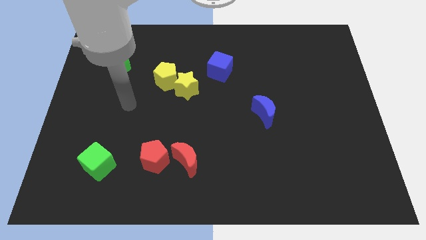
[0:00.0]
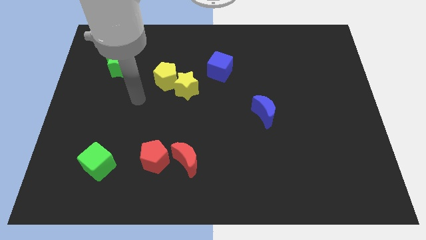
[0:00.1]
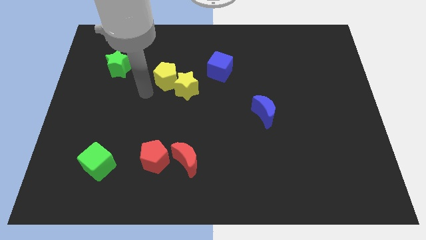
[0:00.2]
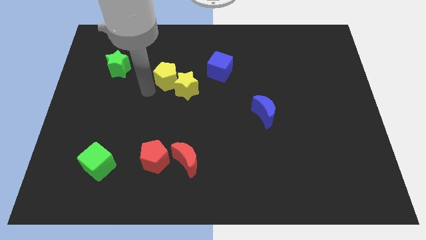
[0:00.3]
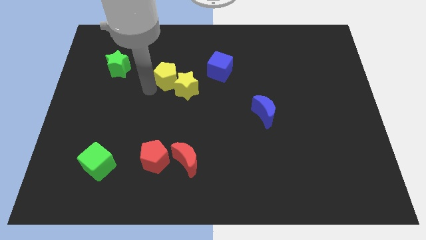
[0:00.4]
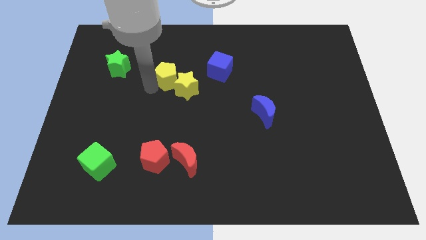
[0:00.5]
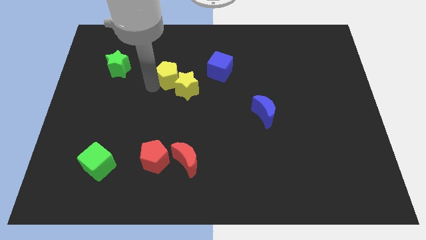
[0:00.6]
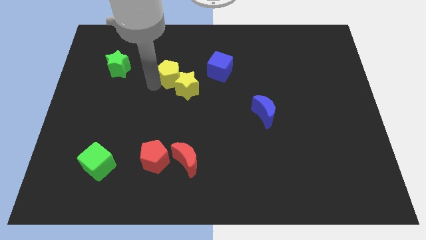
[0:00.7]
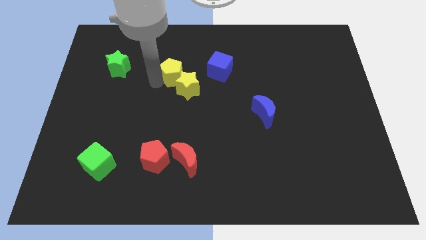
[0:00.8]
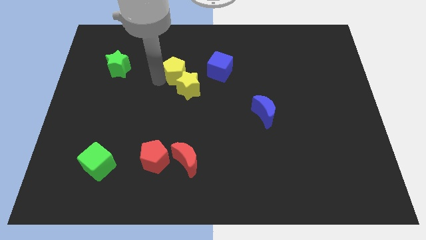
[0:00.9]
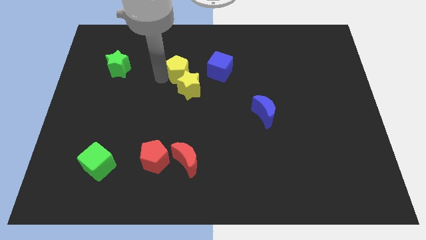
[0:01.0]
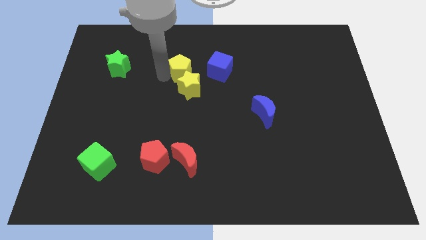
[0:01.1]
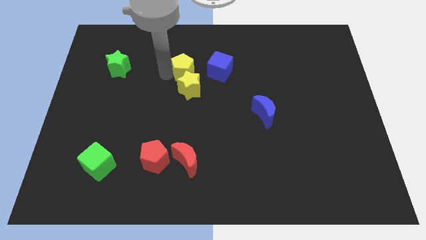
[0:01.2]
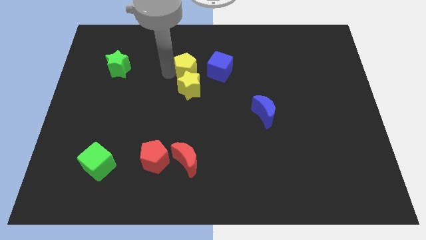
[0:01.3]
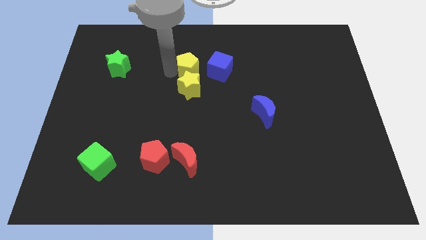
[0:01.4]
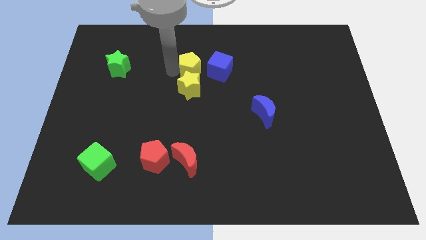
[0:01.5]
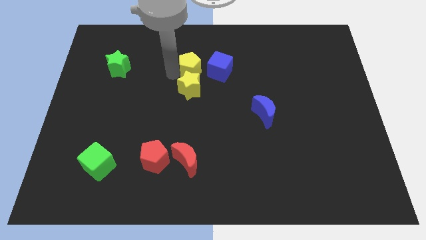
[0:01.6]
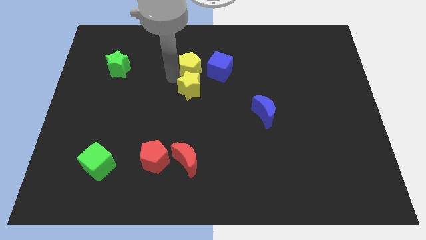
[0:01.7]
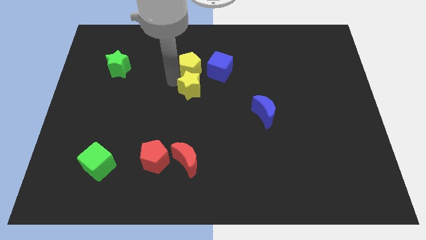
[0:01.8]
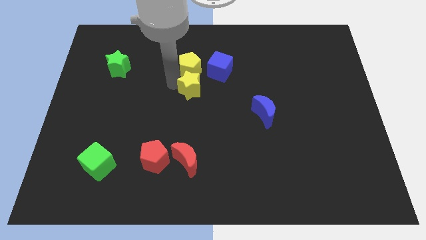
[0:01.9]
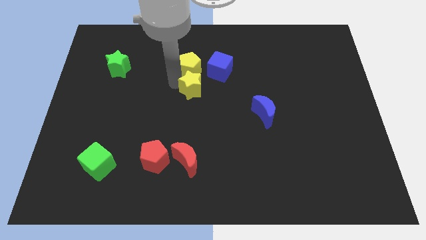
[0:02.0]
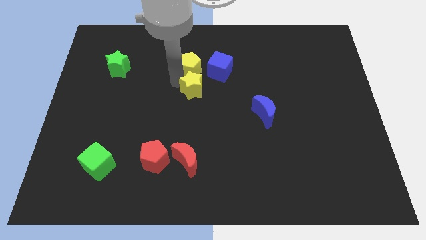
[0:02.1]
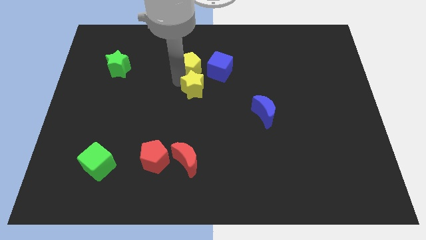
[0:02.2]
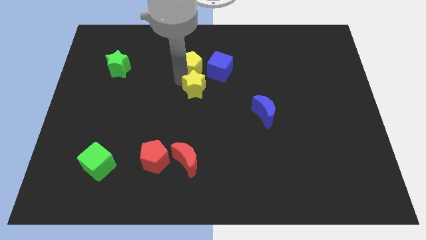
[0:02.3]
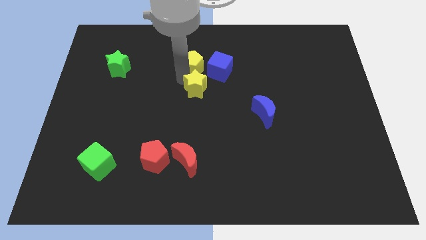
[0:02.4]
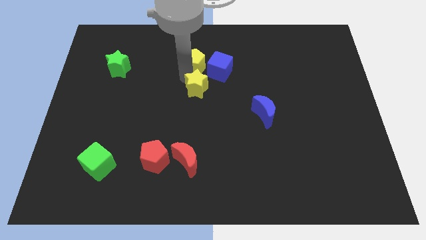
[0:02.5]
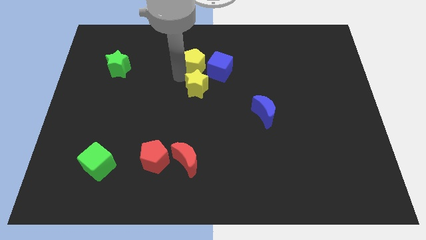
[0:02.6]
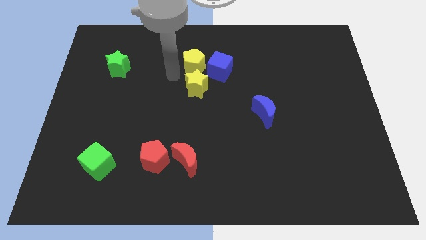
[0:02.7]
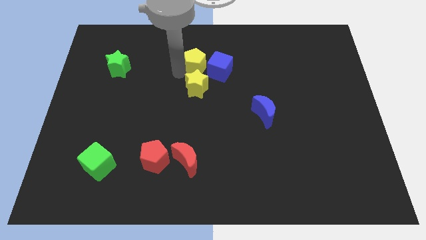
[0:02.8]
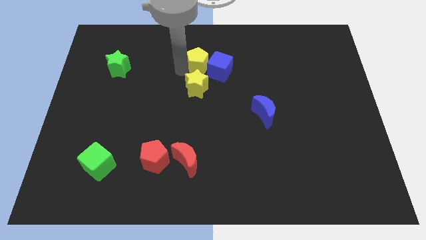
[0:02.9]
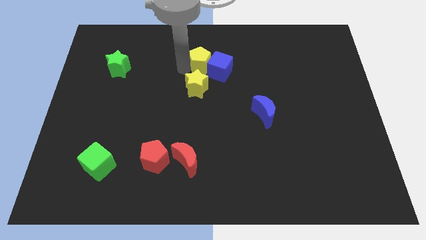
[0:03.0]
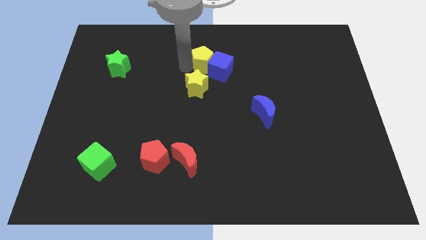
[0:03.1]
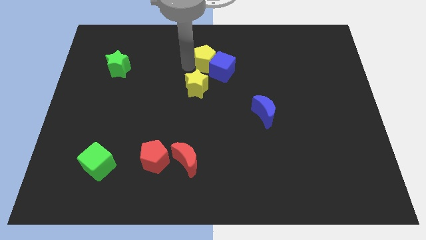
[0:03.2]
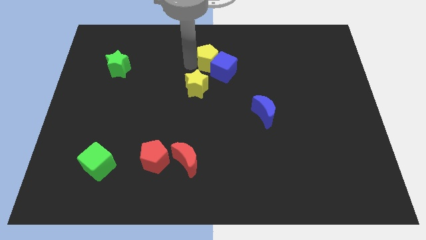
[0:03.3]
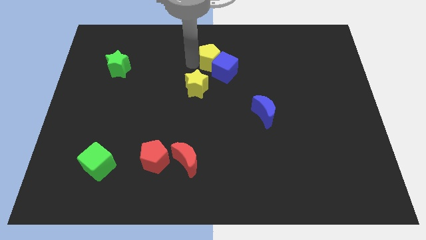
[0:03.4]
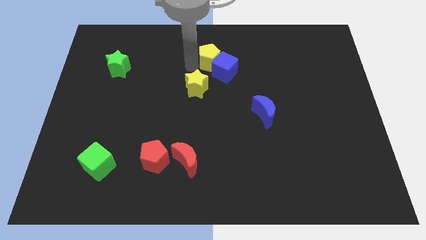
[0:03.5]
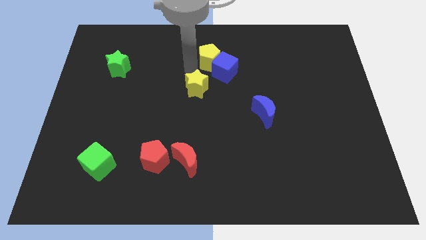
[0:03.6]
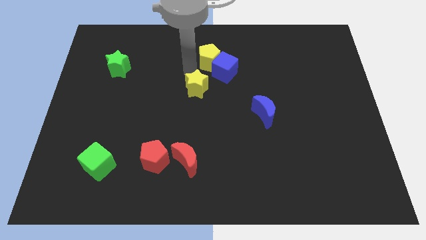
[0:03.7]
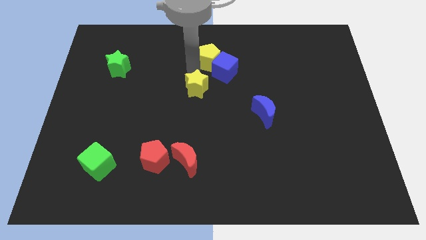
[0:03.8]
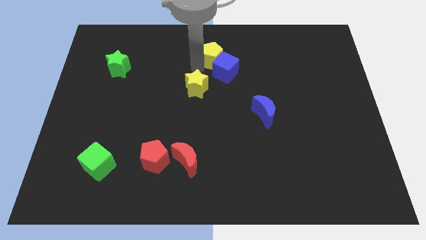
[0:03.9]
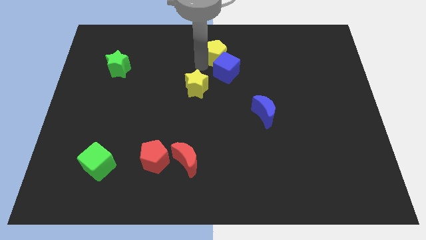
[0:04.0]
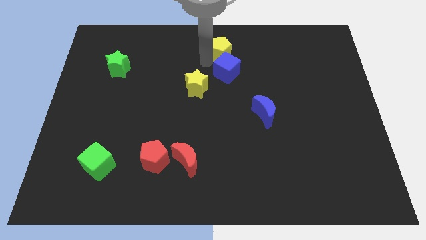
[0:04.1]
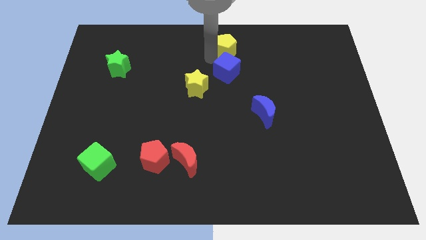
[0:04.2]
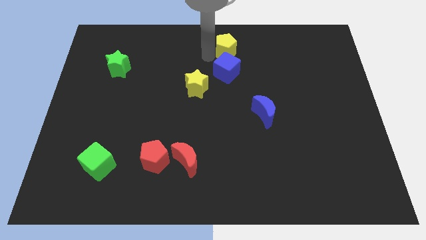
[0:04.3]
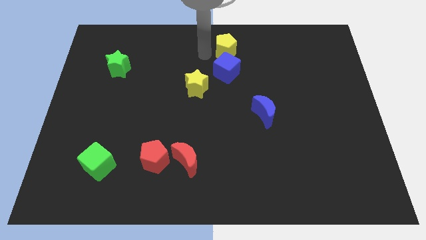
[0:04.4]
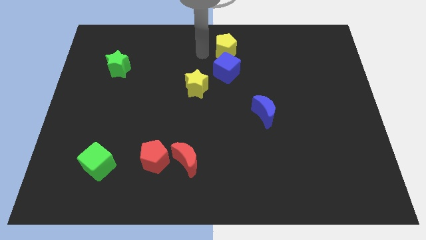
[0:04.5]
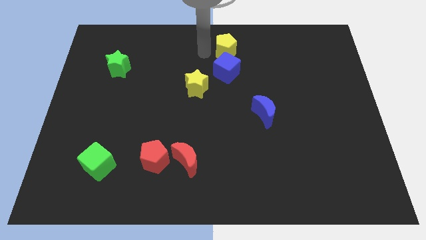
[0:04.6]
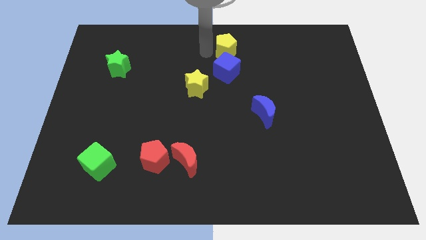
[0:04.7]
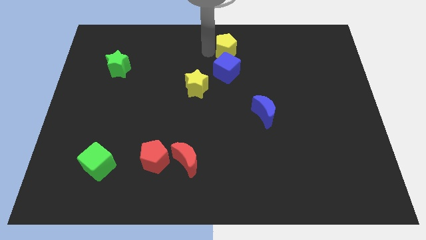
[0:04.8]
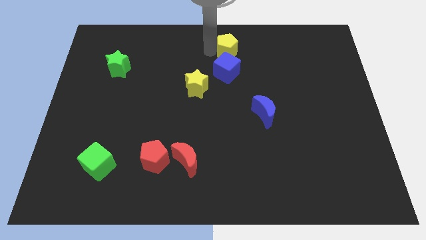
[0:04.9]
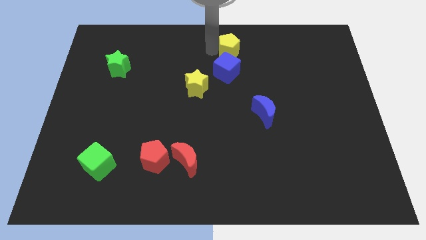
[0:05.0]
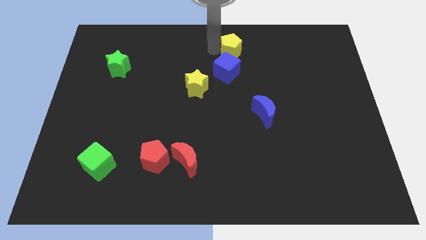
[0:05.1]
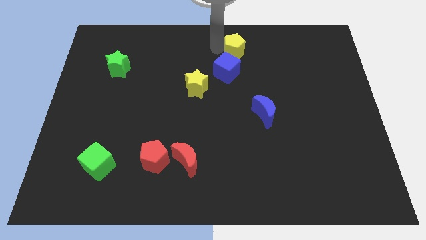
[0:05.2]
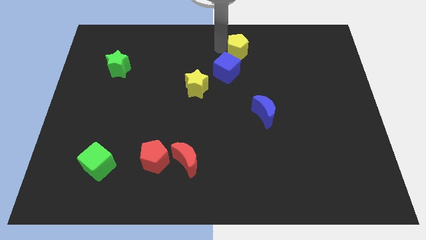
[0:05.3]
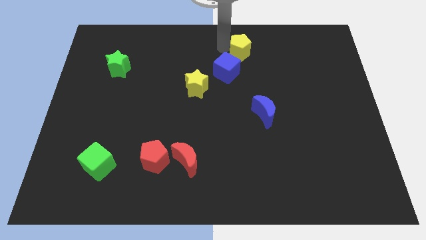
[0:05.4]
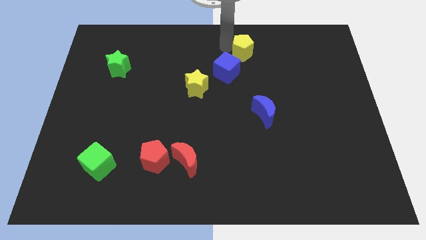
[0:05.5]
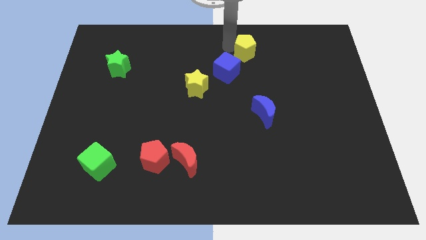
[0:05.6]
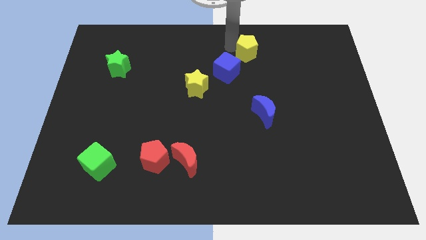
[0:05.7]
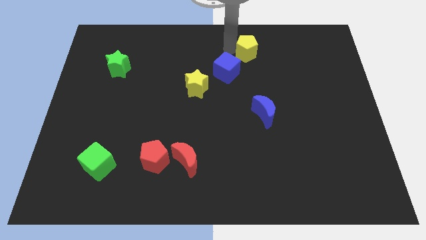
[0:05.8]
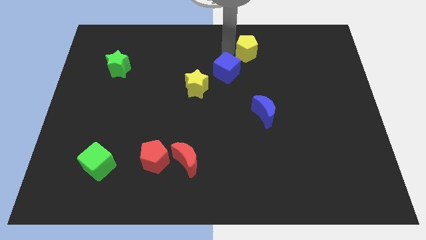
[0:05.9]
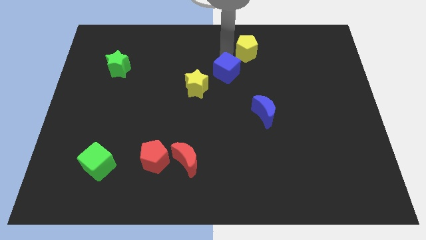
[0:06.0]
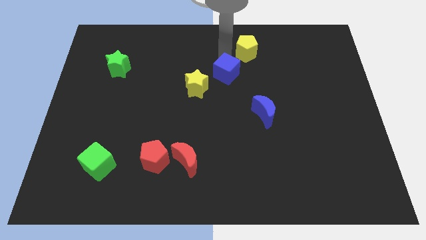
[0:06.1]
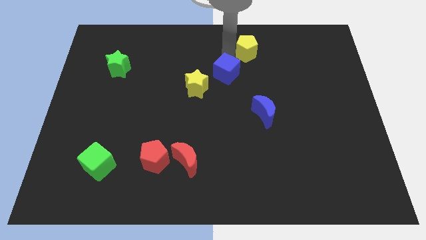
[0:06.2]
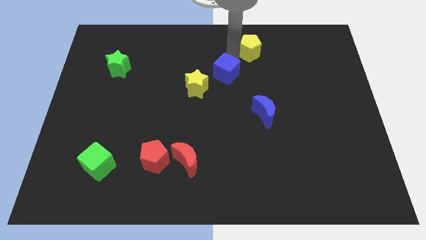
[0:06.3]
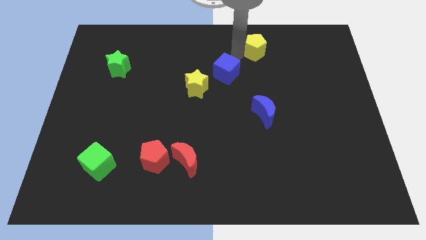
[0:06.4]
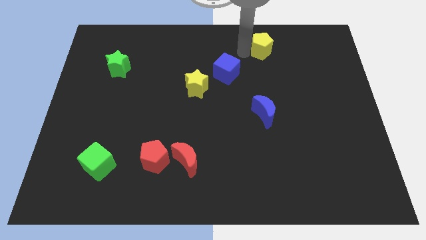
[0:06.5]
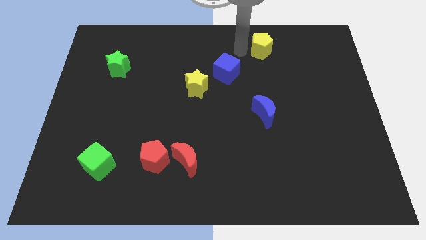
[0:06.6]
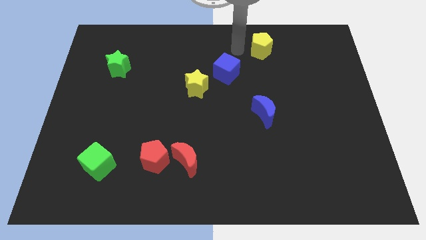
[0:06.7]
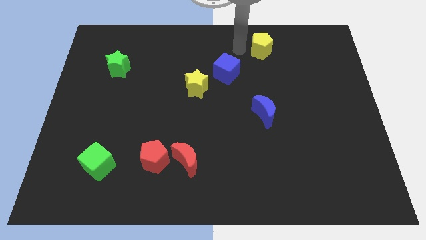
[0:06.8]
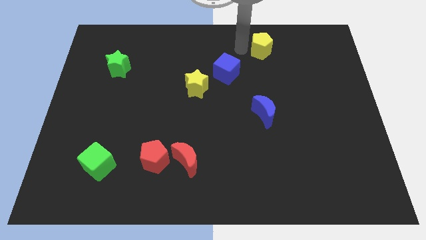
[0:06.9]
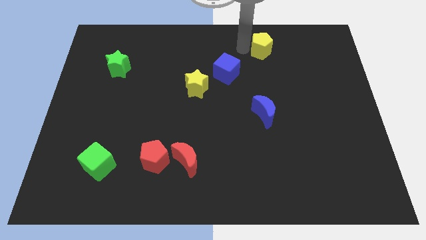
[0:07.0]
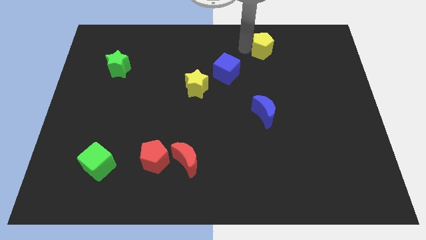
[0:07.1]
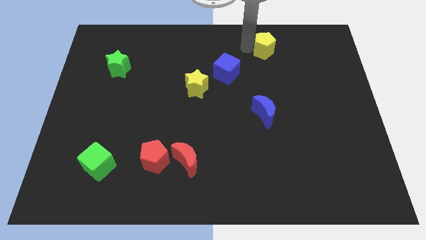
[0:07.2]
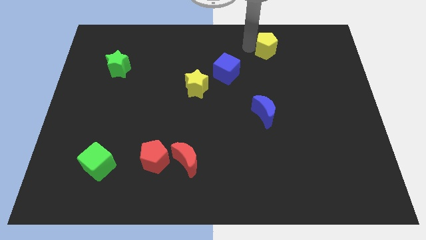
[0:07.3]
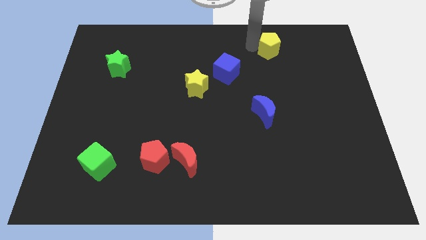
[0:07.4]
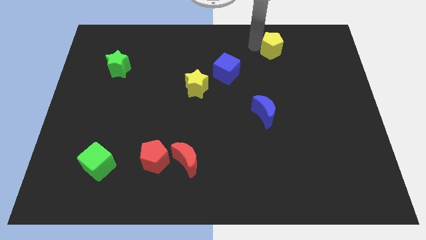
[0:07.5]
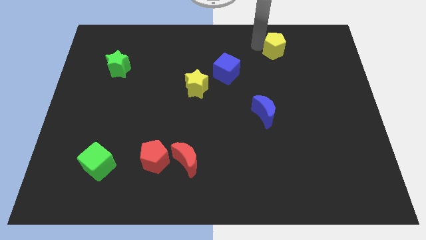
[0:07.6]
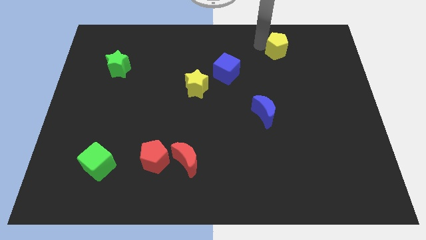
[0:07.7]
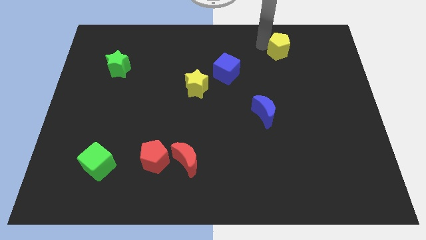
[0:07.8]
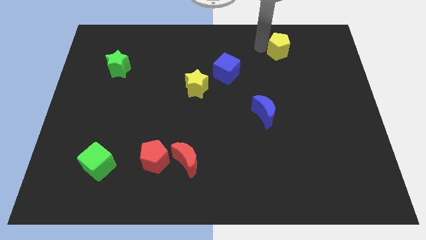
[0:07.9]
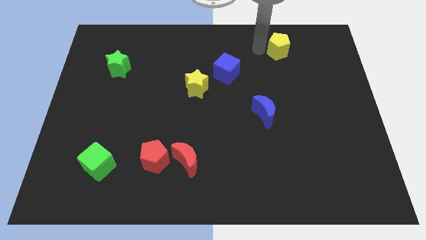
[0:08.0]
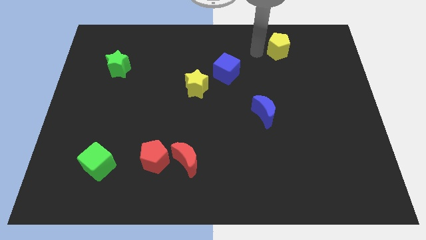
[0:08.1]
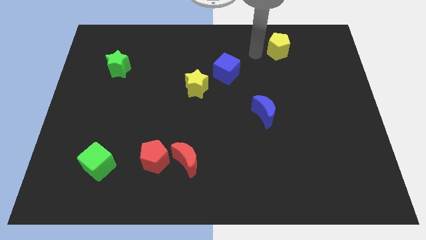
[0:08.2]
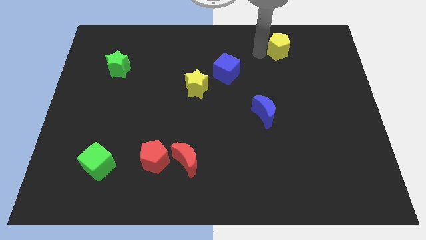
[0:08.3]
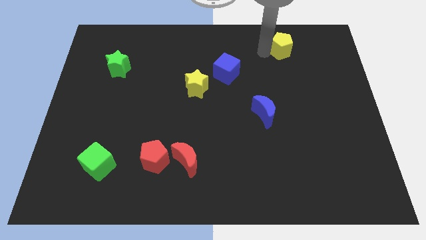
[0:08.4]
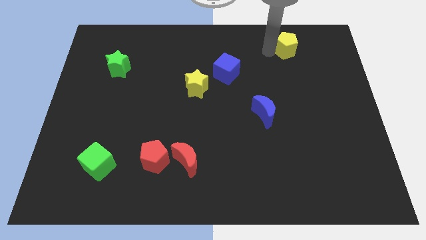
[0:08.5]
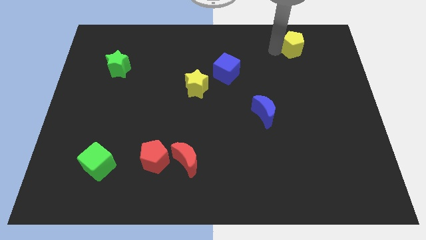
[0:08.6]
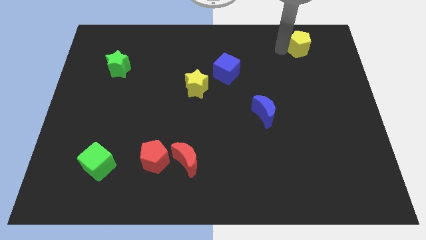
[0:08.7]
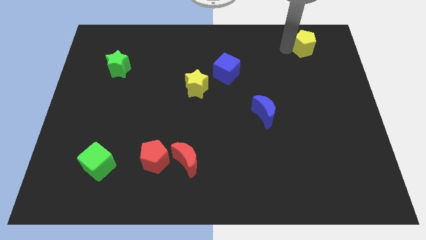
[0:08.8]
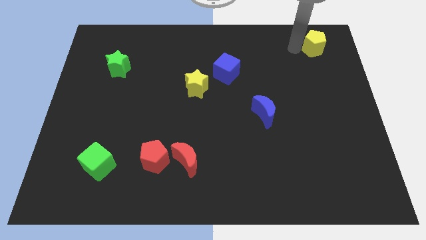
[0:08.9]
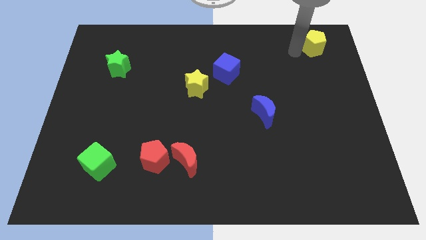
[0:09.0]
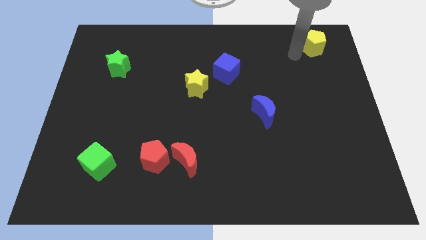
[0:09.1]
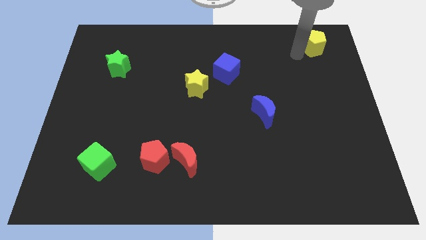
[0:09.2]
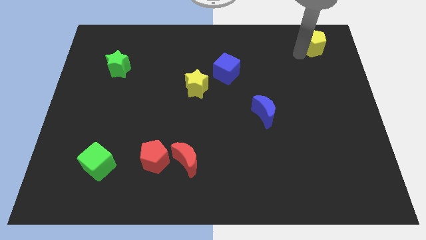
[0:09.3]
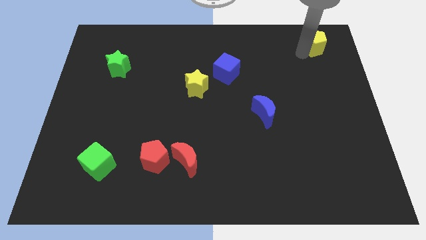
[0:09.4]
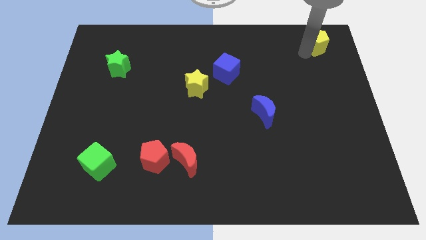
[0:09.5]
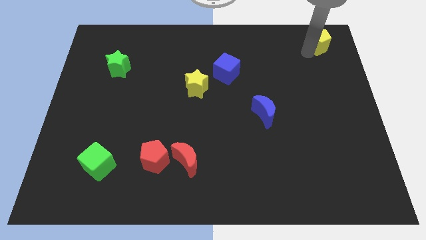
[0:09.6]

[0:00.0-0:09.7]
push the yellow pentagon to the top right corner
